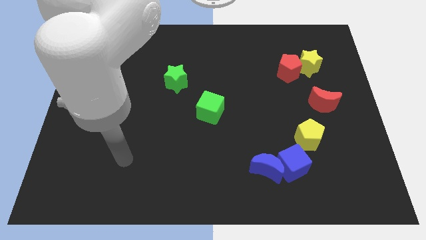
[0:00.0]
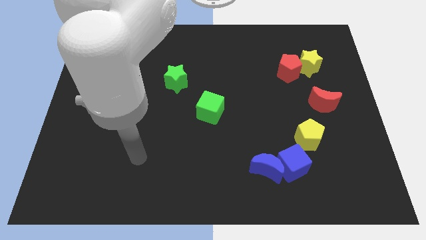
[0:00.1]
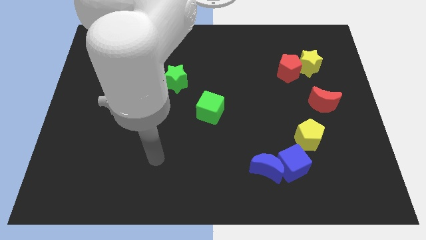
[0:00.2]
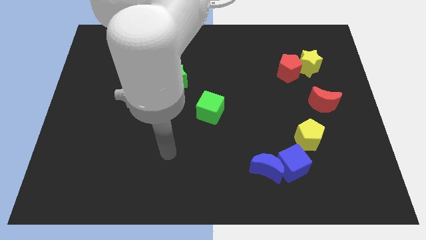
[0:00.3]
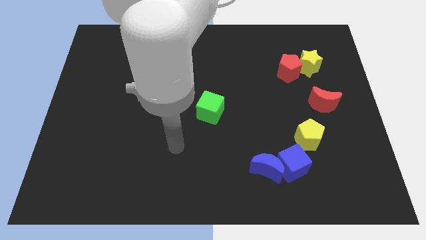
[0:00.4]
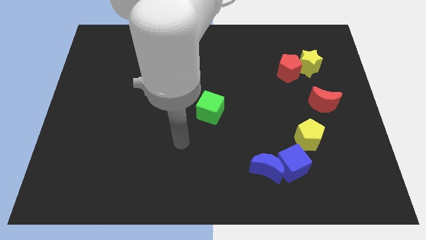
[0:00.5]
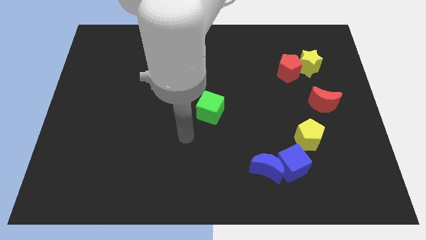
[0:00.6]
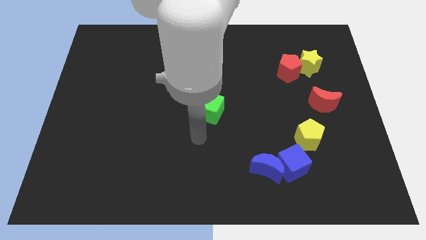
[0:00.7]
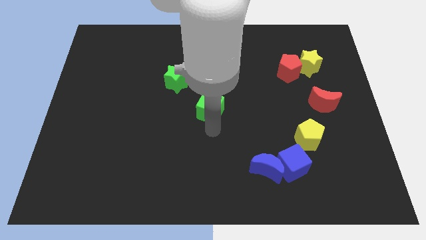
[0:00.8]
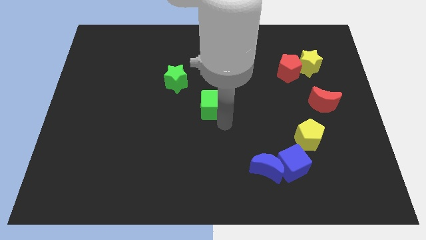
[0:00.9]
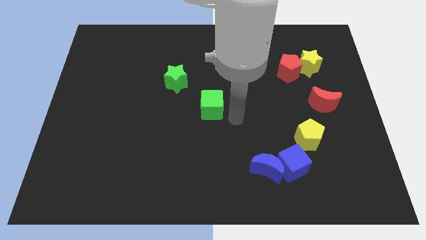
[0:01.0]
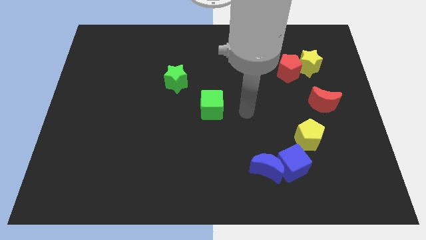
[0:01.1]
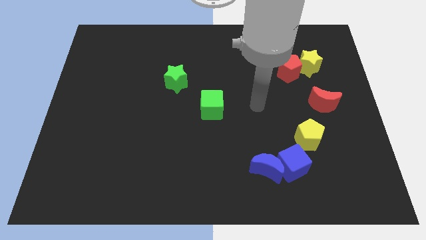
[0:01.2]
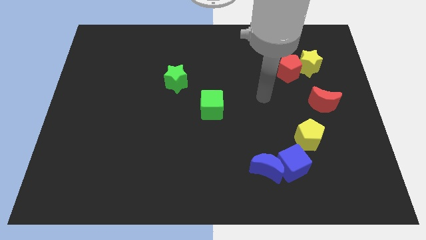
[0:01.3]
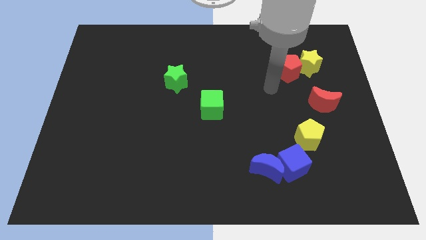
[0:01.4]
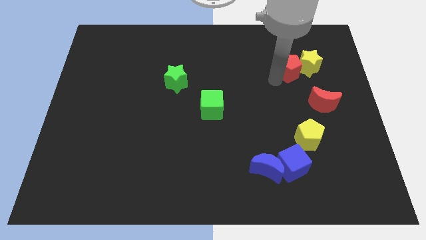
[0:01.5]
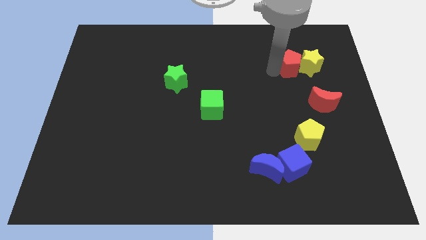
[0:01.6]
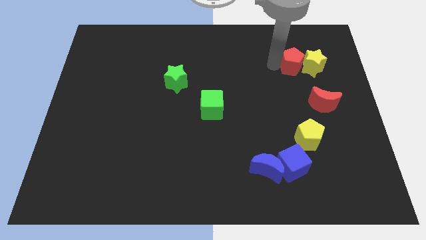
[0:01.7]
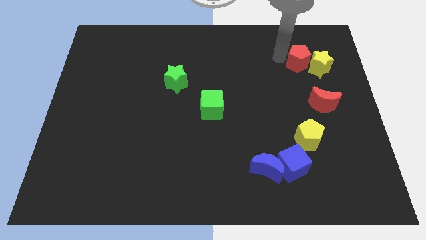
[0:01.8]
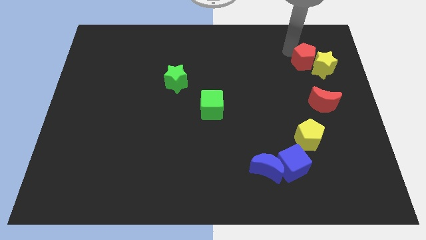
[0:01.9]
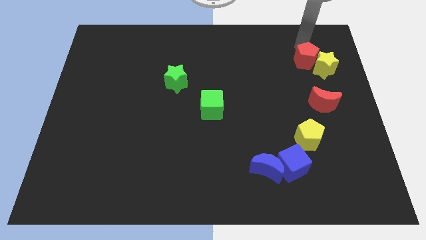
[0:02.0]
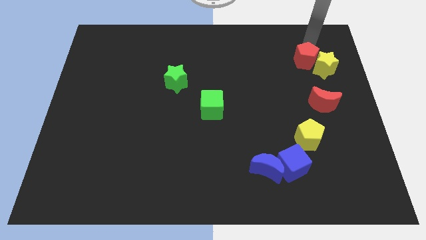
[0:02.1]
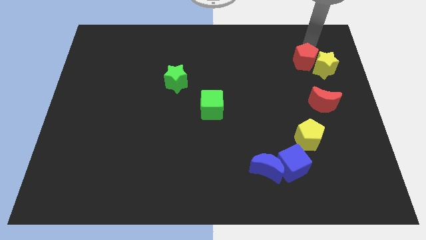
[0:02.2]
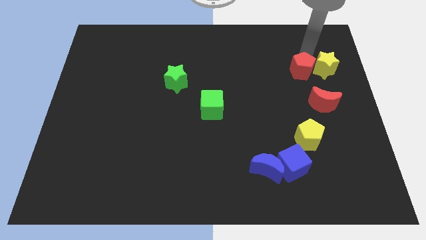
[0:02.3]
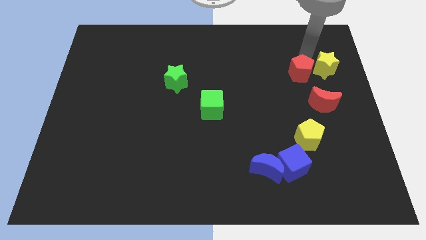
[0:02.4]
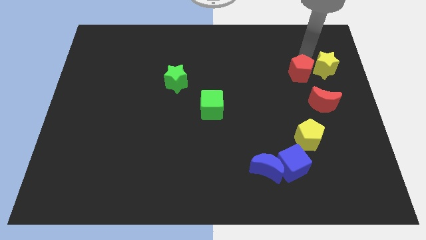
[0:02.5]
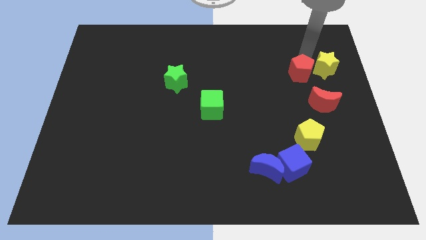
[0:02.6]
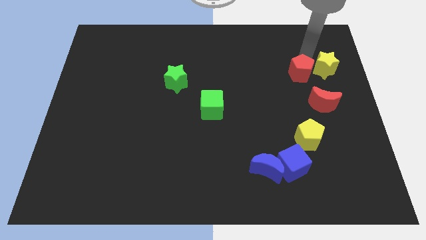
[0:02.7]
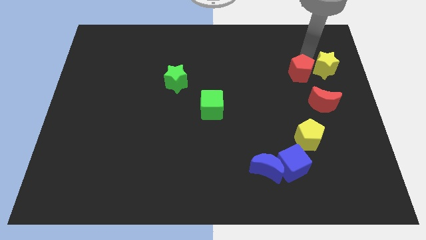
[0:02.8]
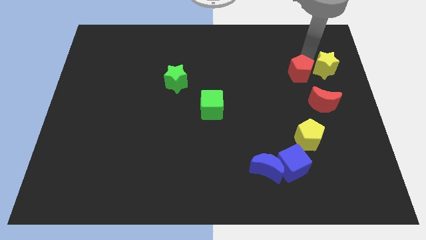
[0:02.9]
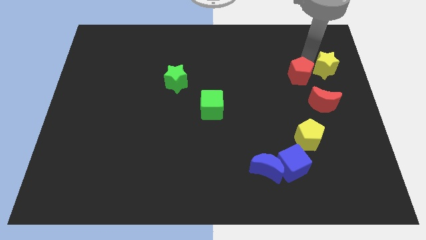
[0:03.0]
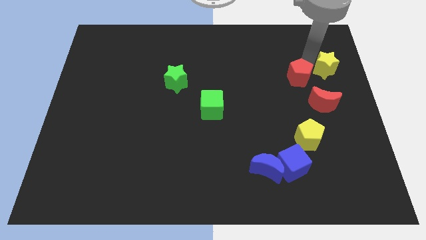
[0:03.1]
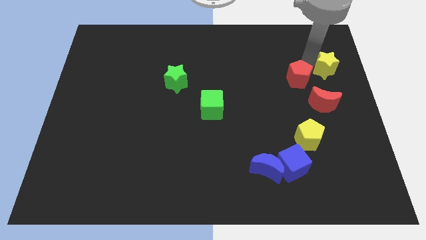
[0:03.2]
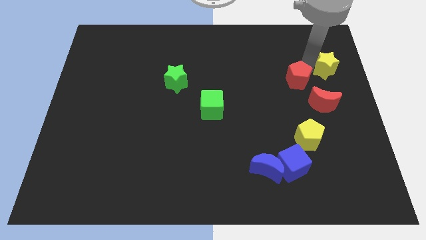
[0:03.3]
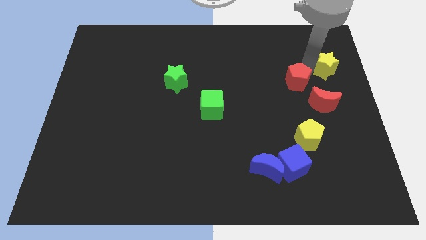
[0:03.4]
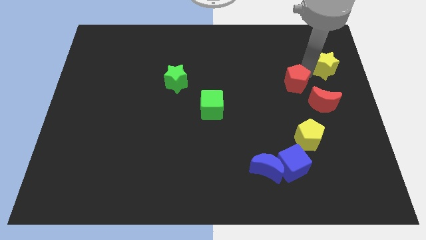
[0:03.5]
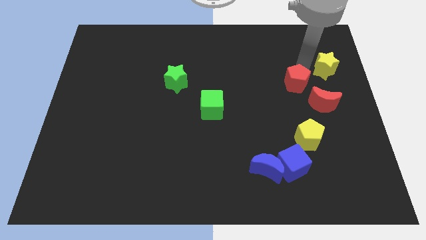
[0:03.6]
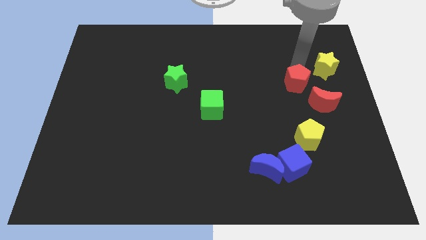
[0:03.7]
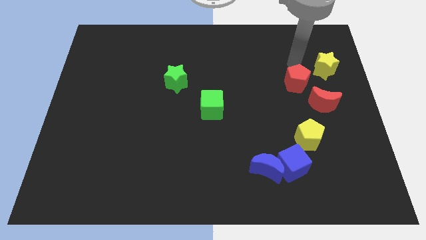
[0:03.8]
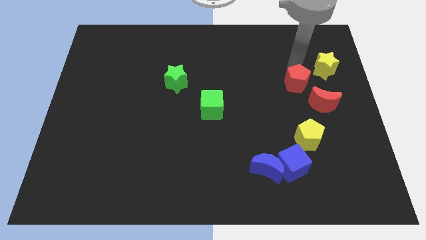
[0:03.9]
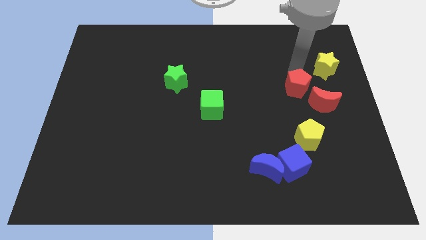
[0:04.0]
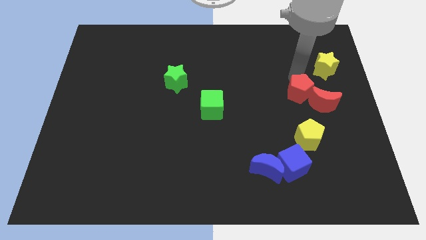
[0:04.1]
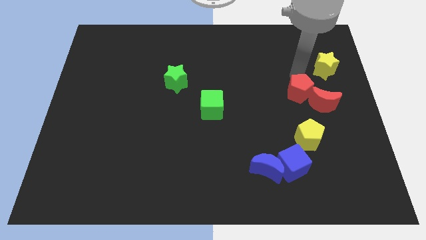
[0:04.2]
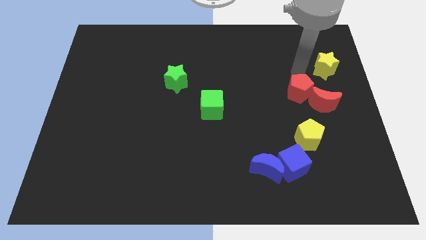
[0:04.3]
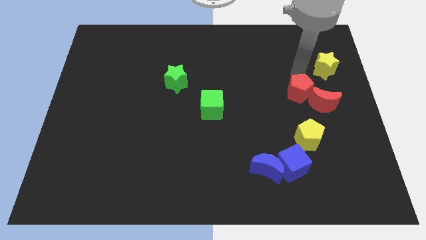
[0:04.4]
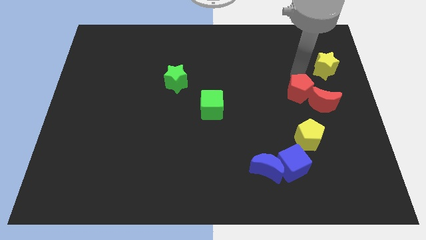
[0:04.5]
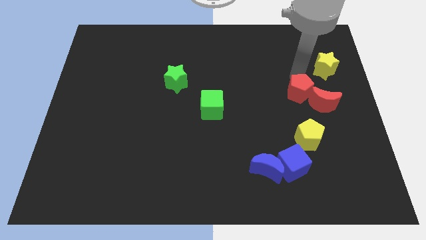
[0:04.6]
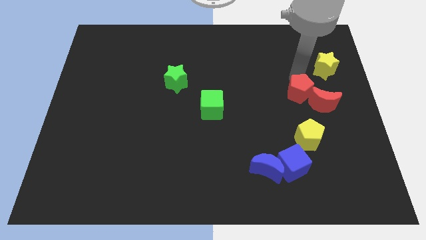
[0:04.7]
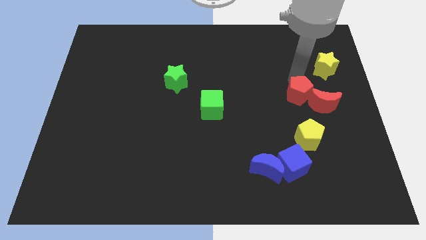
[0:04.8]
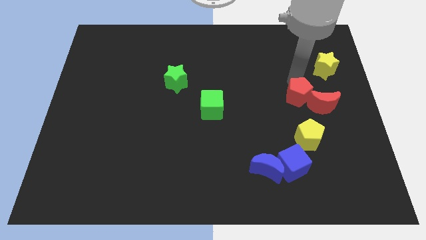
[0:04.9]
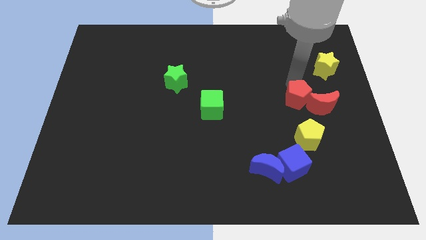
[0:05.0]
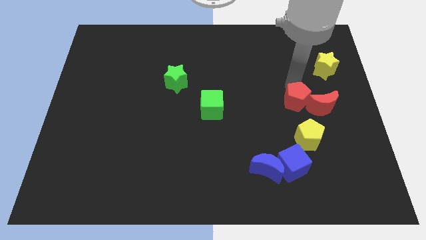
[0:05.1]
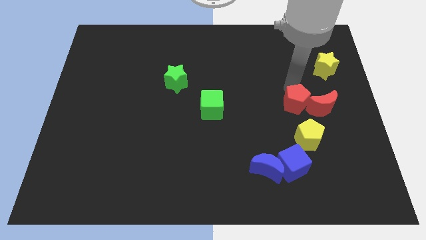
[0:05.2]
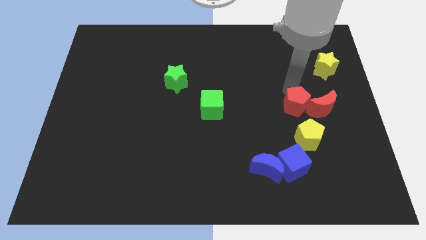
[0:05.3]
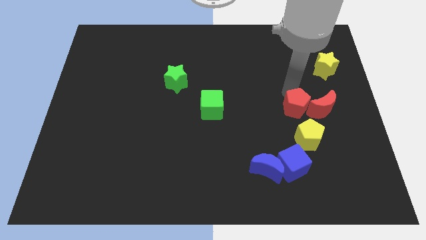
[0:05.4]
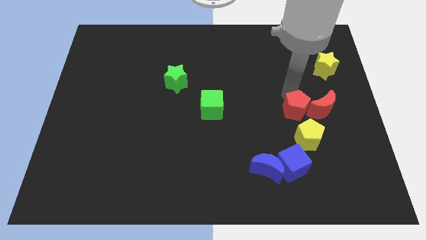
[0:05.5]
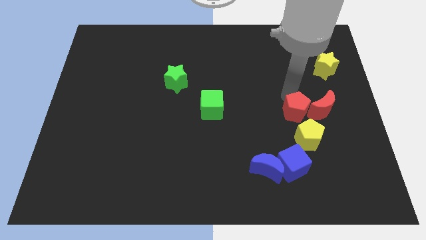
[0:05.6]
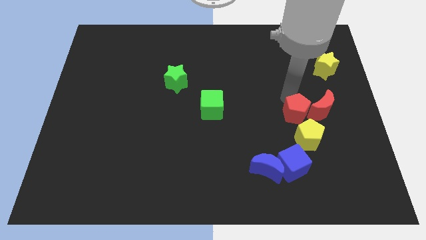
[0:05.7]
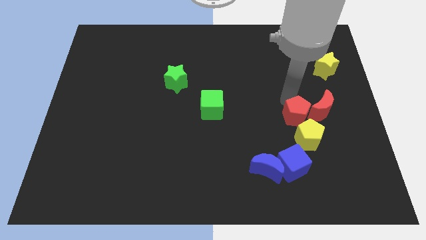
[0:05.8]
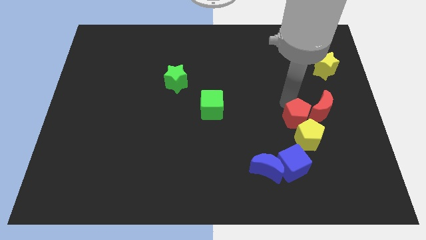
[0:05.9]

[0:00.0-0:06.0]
push the red pentagon to the yellow pentagon

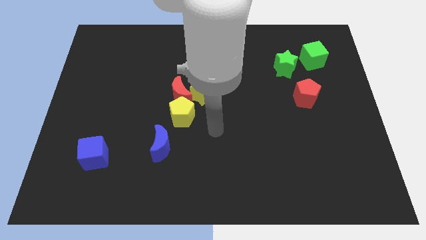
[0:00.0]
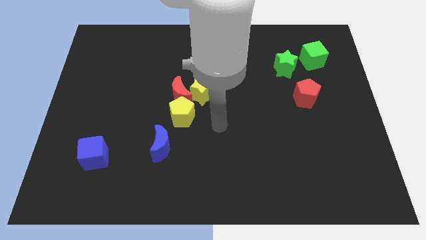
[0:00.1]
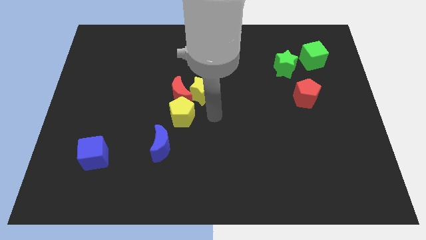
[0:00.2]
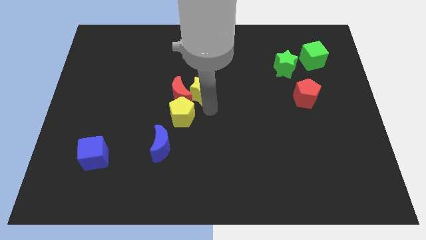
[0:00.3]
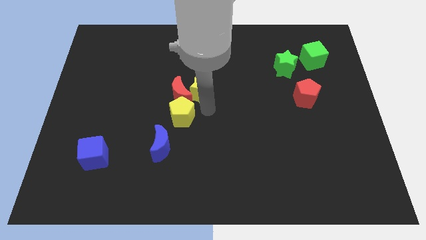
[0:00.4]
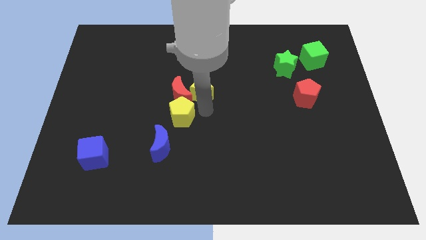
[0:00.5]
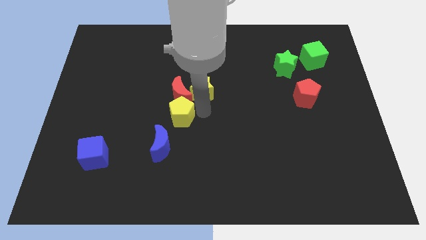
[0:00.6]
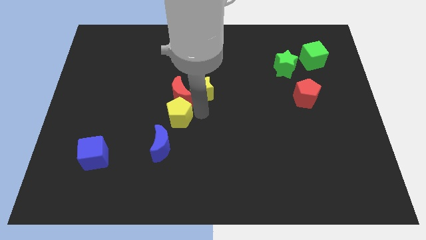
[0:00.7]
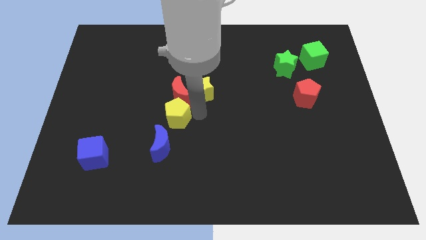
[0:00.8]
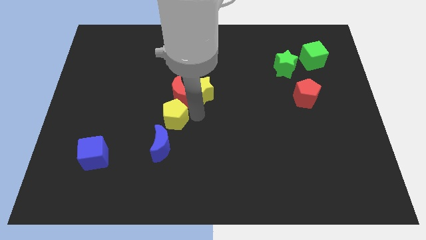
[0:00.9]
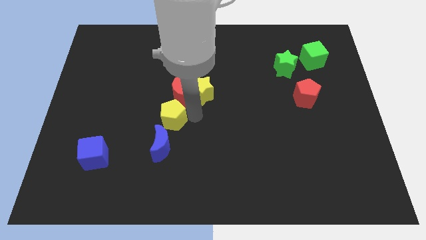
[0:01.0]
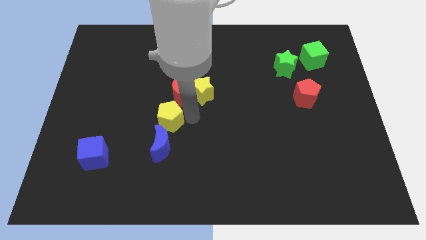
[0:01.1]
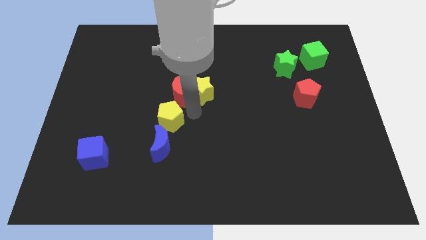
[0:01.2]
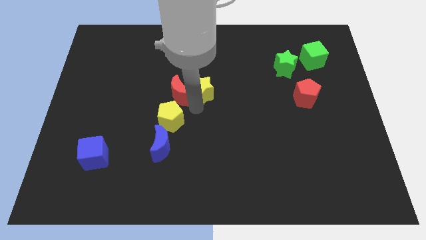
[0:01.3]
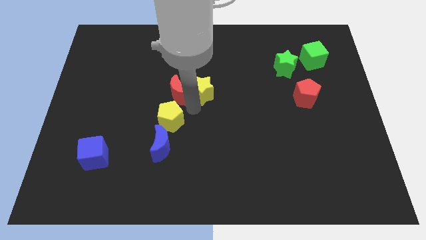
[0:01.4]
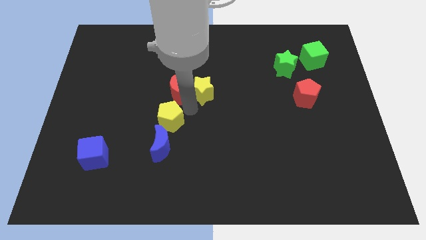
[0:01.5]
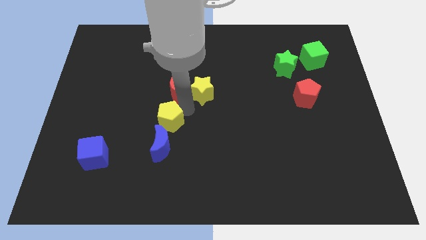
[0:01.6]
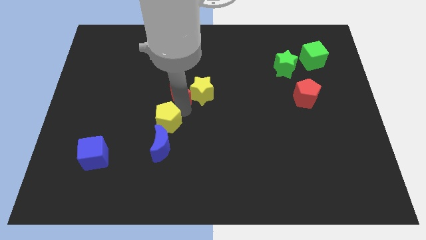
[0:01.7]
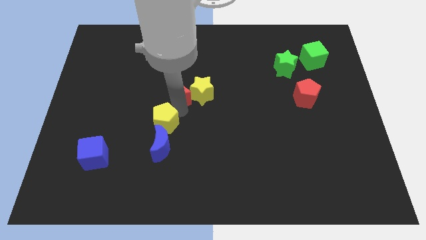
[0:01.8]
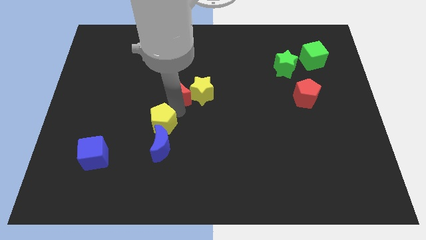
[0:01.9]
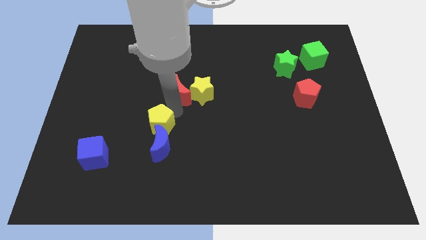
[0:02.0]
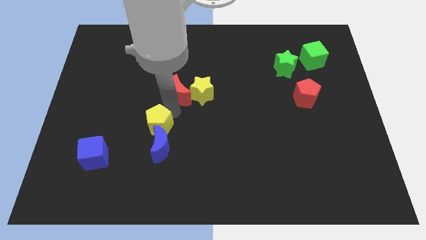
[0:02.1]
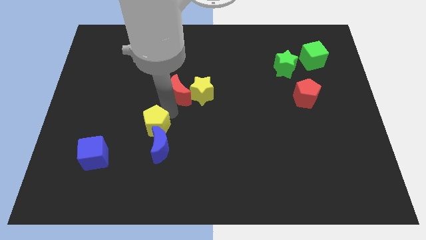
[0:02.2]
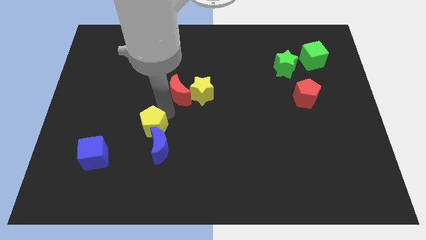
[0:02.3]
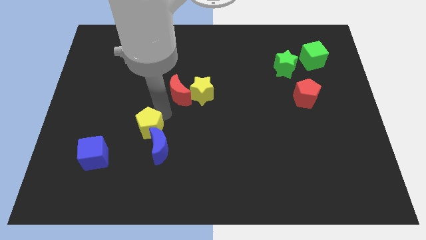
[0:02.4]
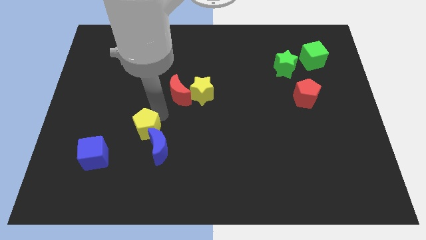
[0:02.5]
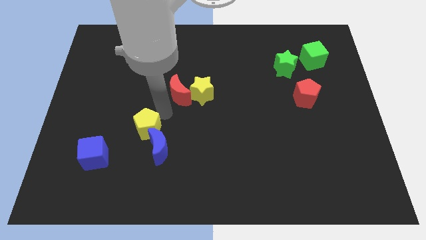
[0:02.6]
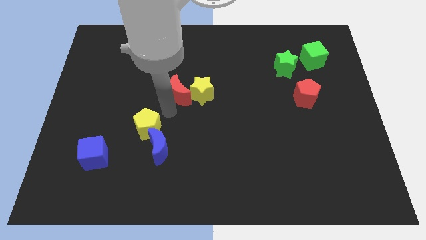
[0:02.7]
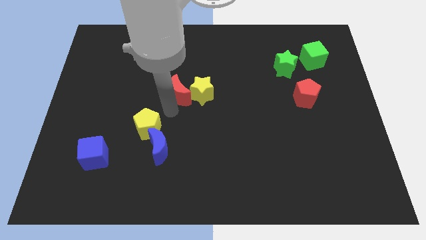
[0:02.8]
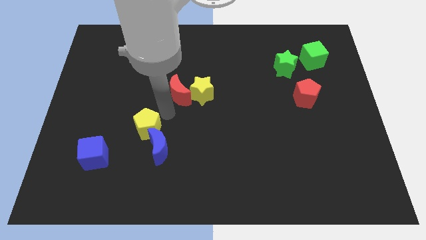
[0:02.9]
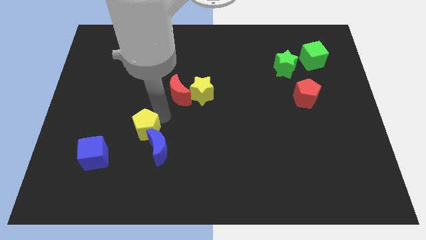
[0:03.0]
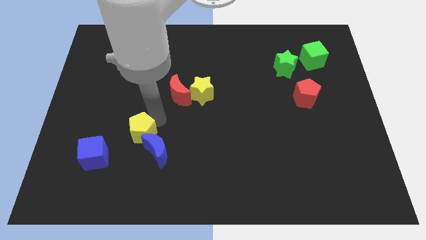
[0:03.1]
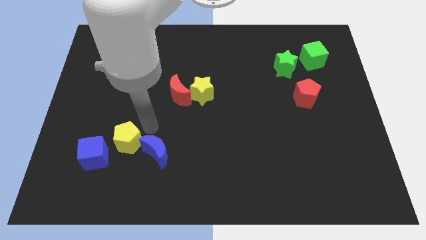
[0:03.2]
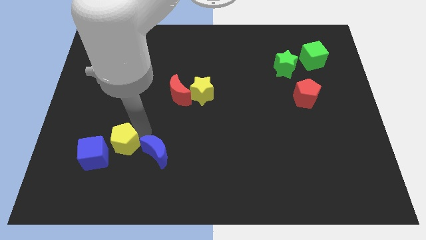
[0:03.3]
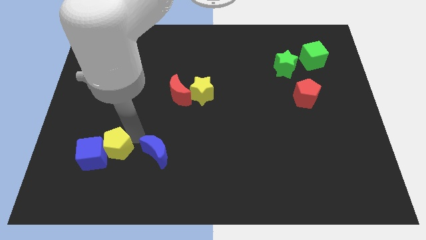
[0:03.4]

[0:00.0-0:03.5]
push the yellow pentagon towards the blue cube
